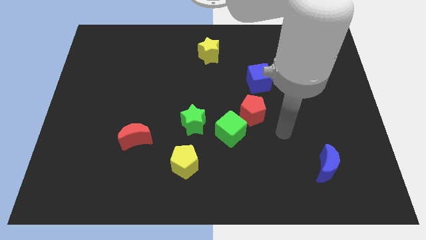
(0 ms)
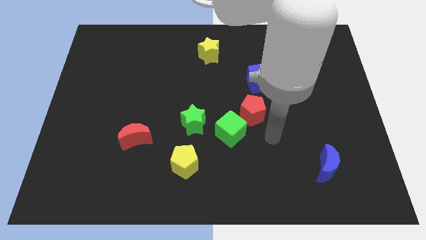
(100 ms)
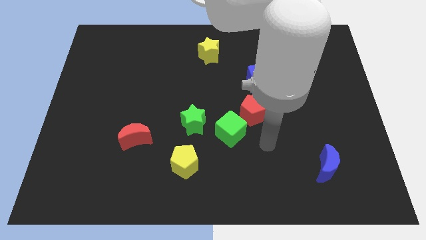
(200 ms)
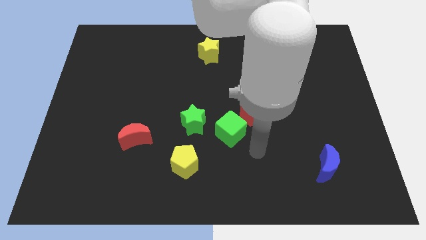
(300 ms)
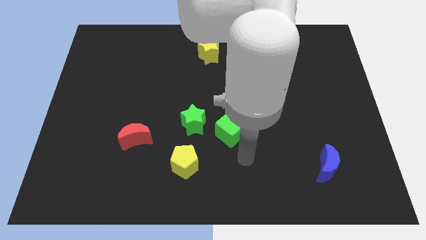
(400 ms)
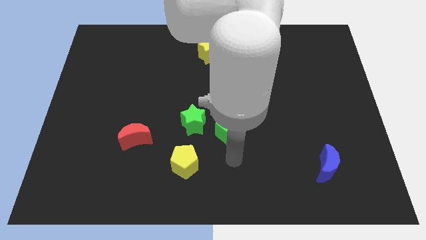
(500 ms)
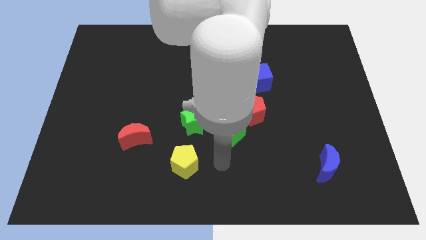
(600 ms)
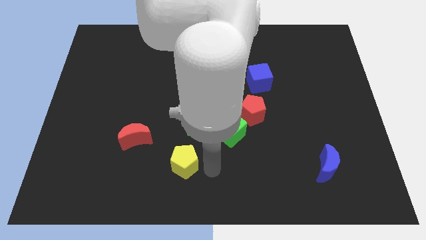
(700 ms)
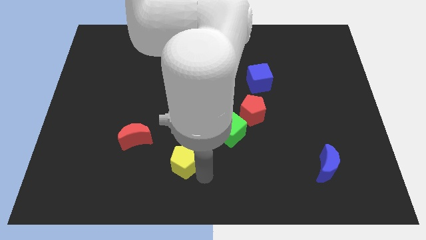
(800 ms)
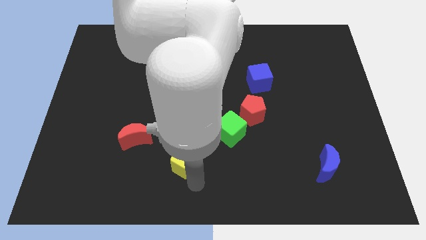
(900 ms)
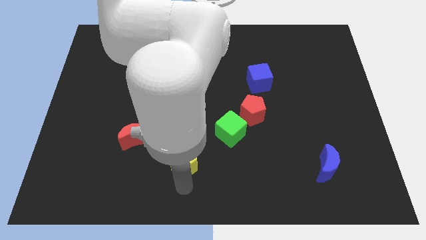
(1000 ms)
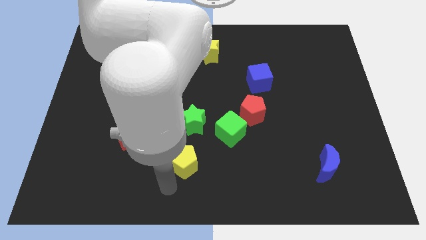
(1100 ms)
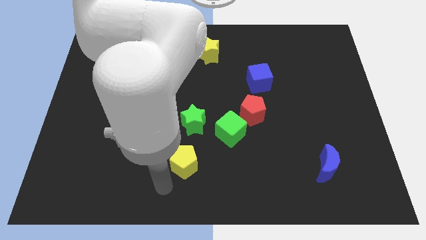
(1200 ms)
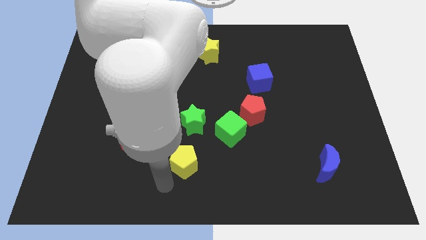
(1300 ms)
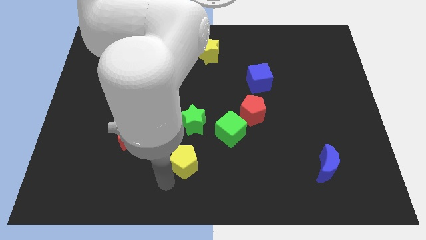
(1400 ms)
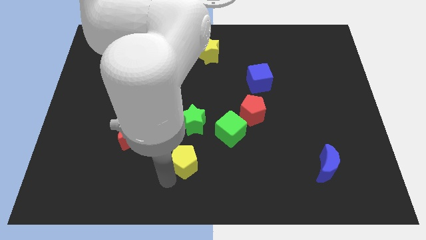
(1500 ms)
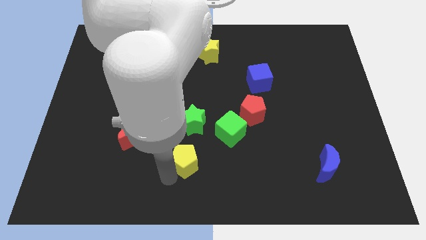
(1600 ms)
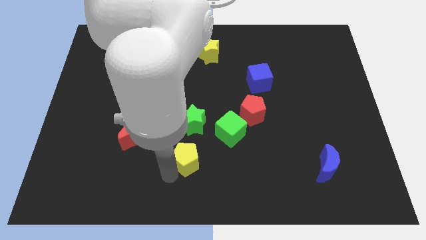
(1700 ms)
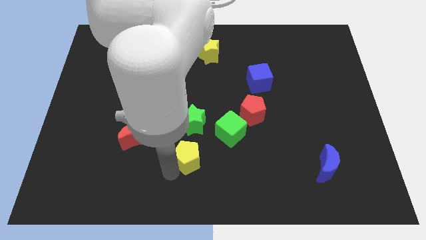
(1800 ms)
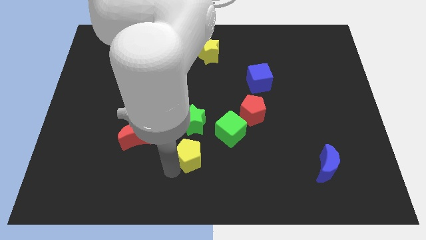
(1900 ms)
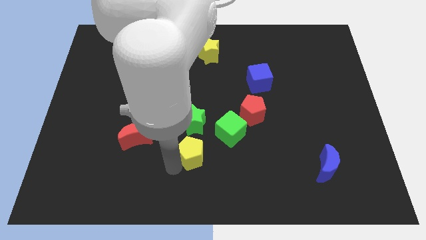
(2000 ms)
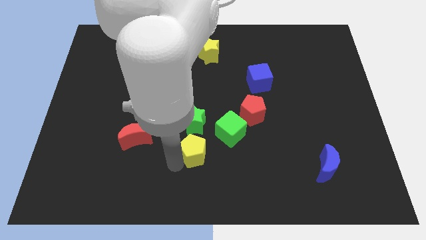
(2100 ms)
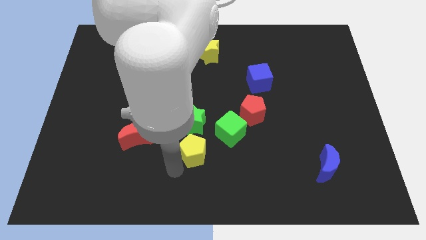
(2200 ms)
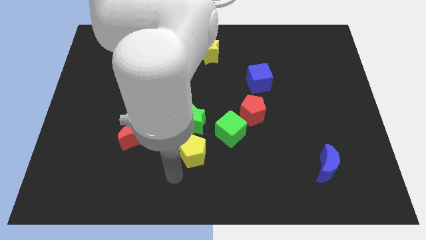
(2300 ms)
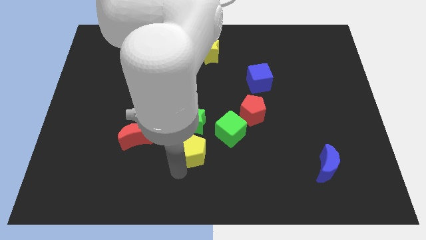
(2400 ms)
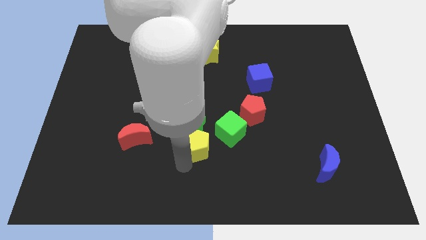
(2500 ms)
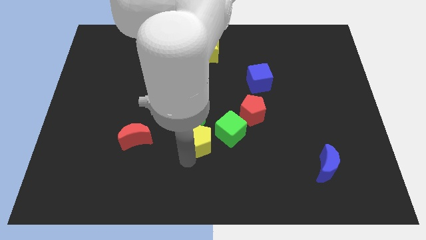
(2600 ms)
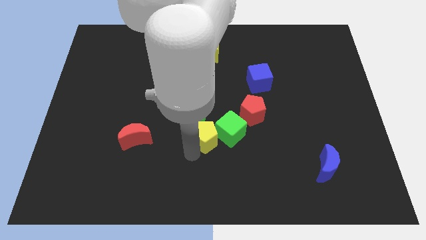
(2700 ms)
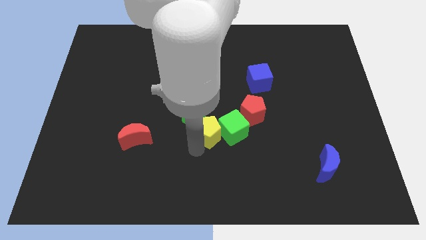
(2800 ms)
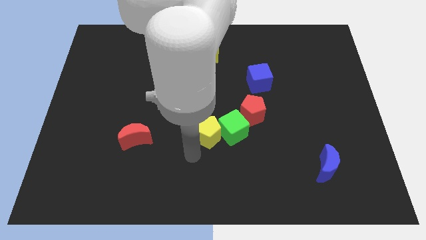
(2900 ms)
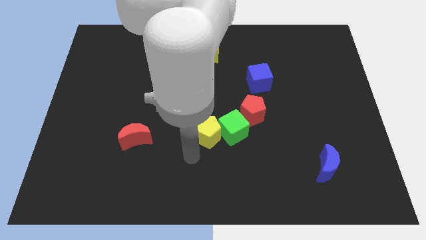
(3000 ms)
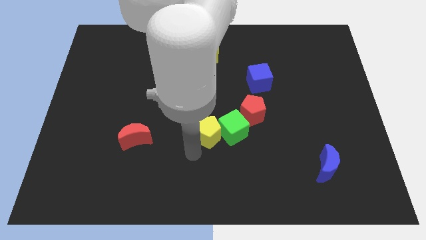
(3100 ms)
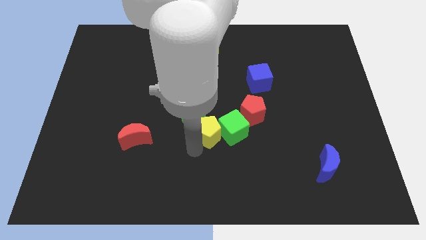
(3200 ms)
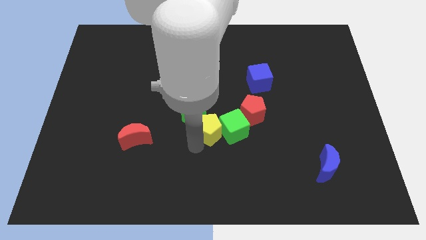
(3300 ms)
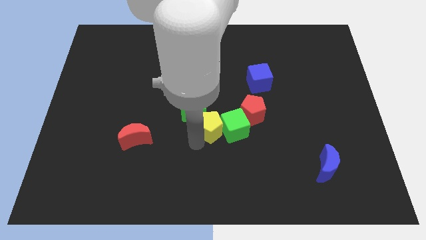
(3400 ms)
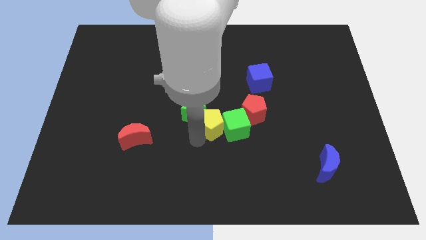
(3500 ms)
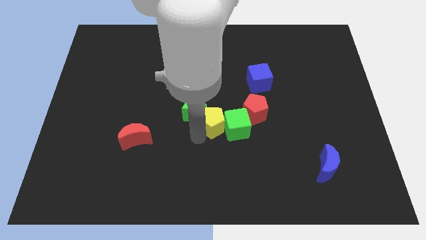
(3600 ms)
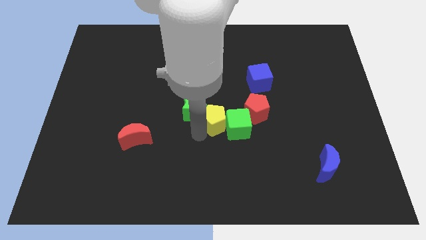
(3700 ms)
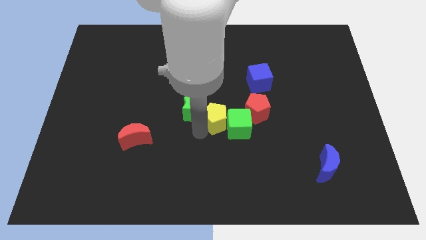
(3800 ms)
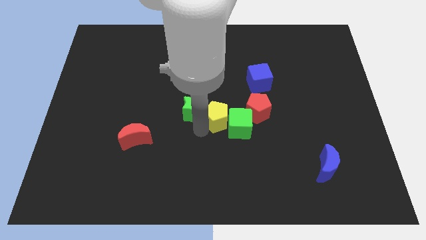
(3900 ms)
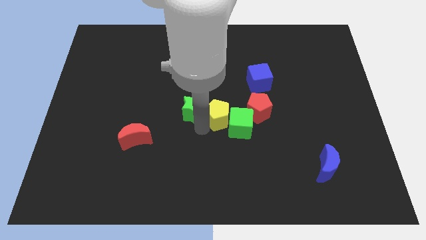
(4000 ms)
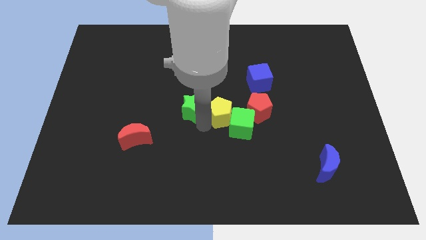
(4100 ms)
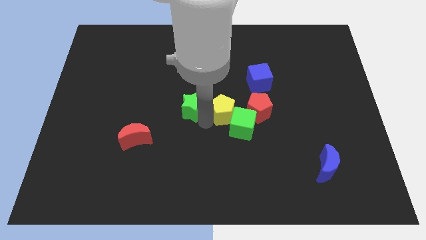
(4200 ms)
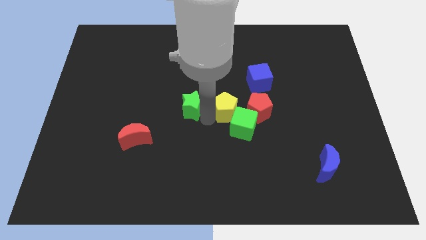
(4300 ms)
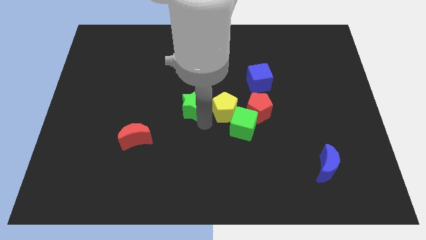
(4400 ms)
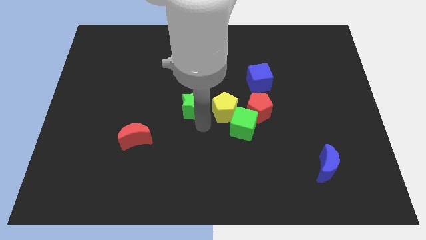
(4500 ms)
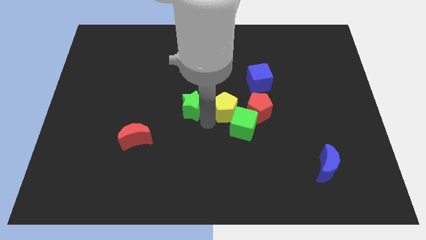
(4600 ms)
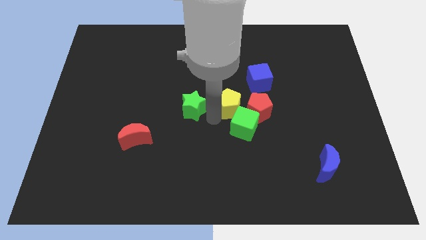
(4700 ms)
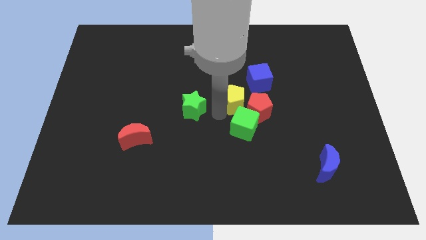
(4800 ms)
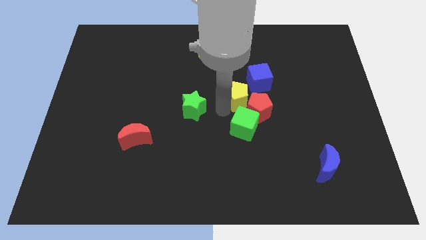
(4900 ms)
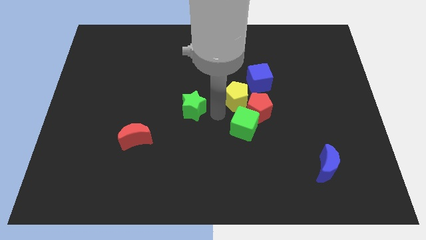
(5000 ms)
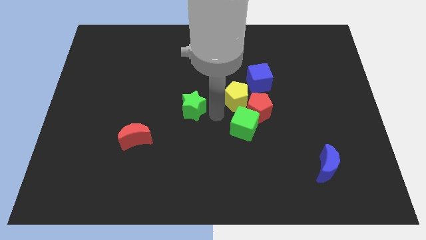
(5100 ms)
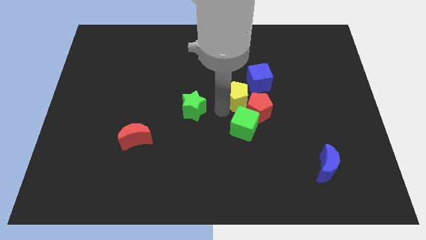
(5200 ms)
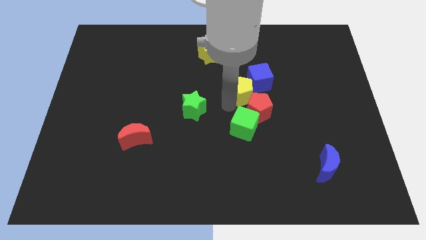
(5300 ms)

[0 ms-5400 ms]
push the yellow pentagon next to the blue cube

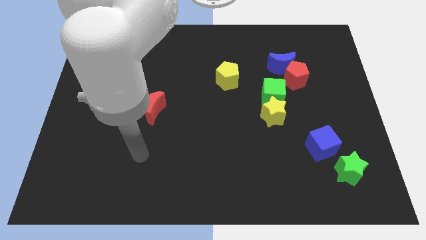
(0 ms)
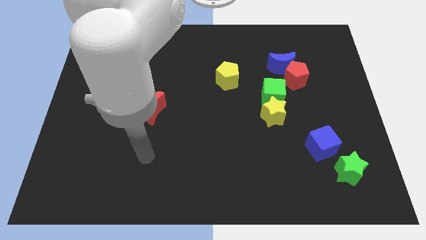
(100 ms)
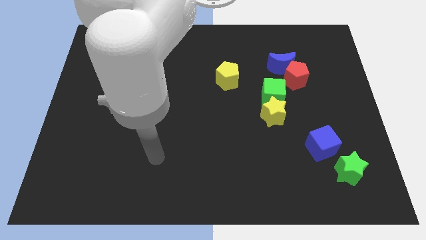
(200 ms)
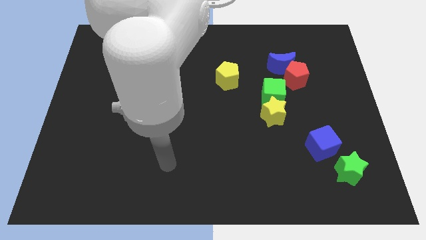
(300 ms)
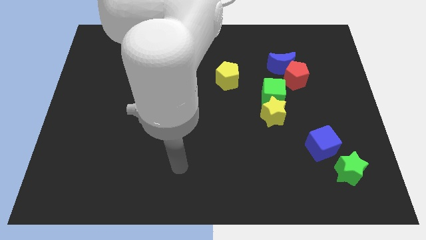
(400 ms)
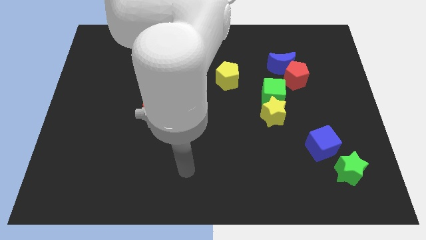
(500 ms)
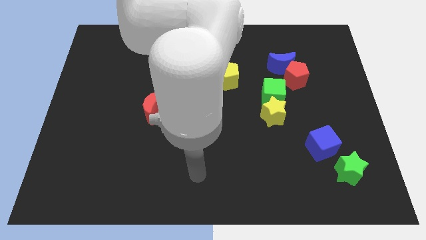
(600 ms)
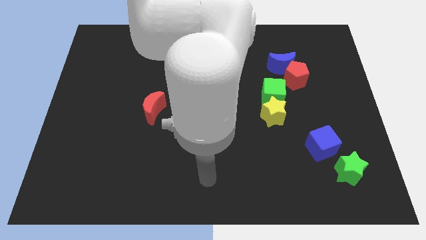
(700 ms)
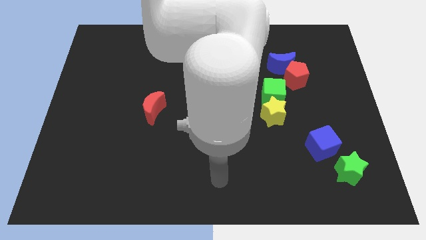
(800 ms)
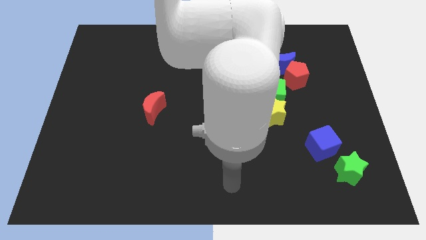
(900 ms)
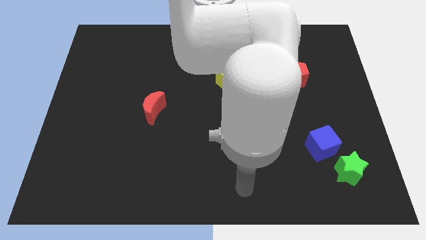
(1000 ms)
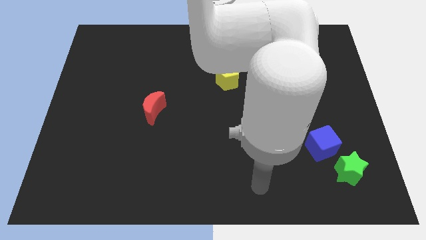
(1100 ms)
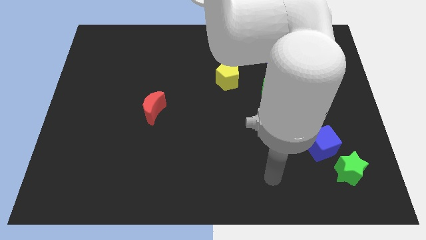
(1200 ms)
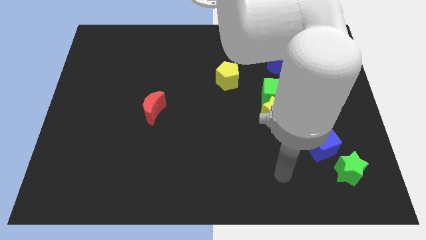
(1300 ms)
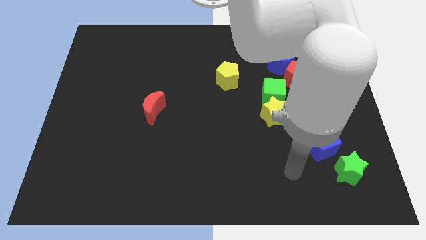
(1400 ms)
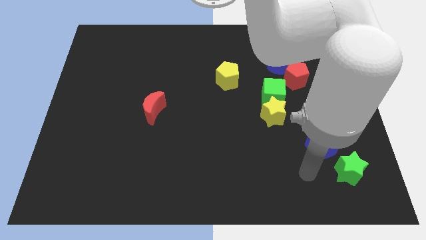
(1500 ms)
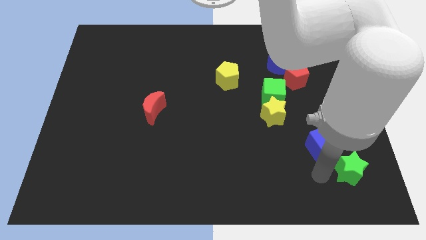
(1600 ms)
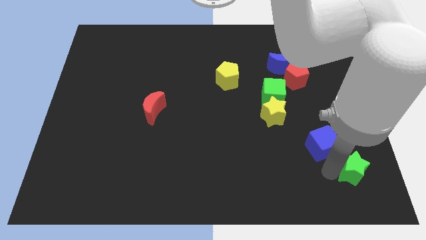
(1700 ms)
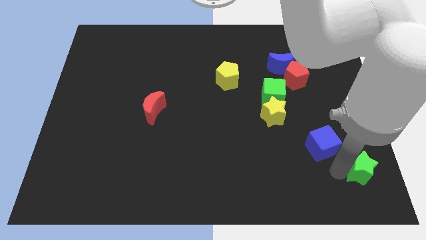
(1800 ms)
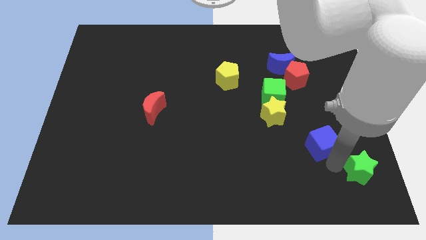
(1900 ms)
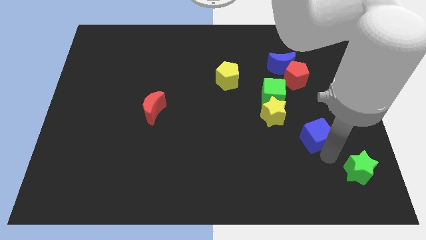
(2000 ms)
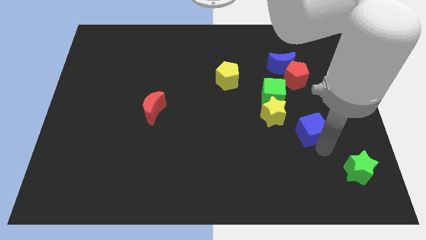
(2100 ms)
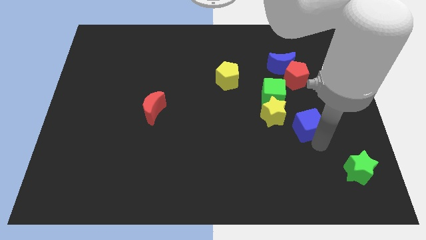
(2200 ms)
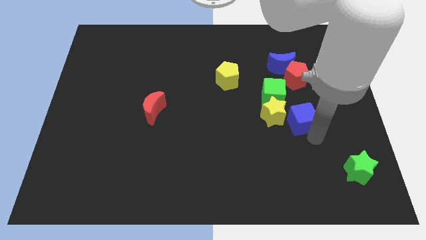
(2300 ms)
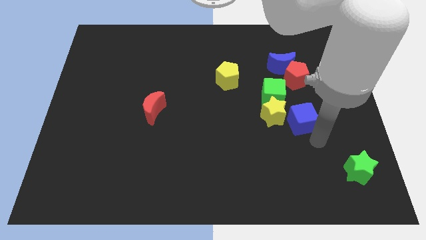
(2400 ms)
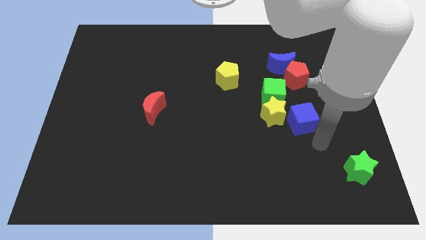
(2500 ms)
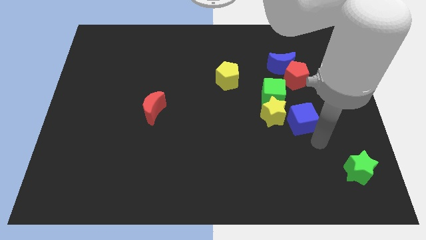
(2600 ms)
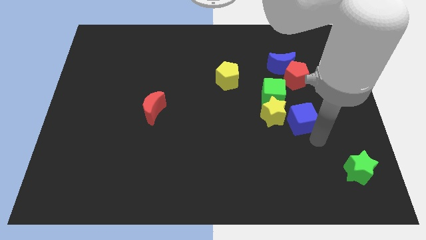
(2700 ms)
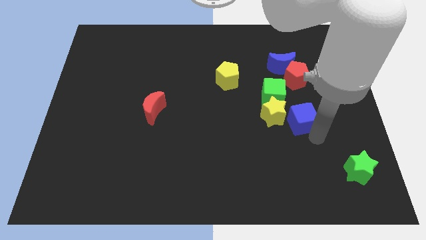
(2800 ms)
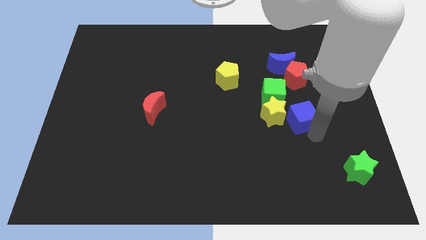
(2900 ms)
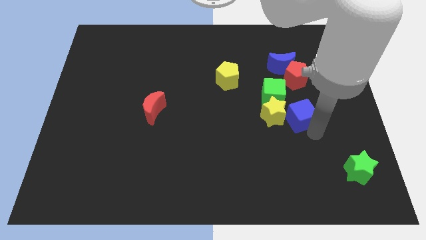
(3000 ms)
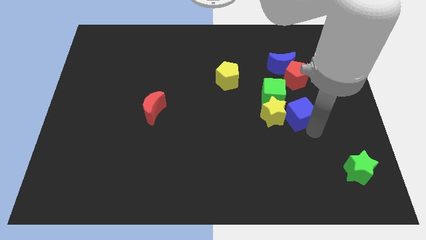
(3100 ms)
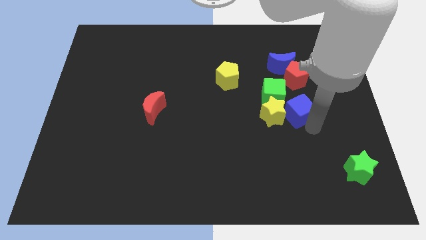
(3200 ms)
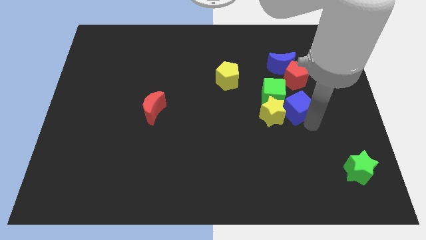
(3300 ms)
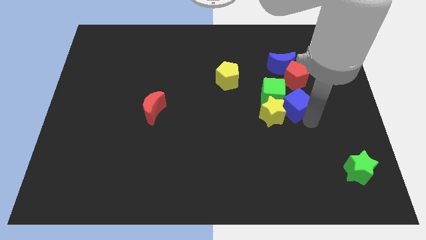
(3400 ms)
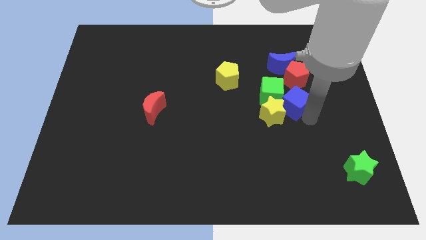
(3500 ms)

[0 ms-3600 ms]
move the blue cube to the green cube
